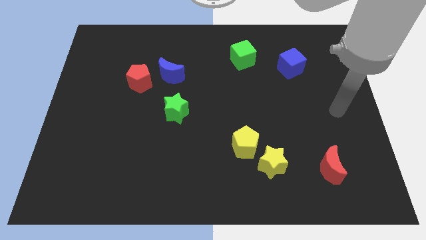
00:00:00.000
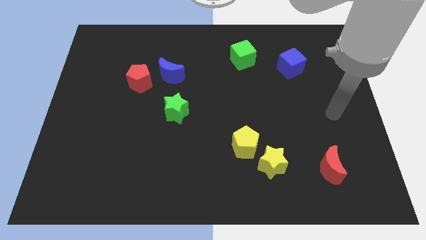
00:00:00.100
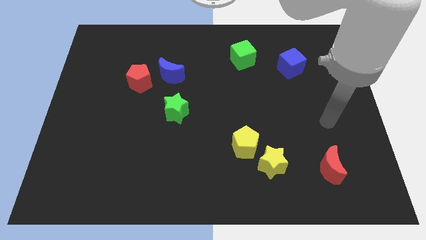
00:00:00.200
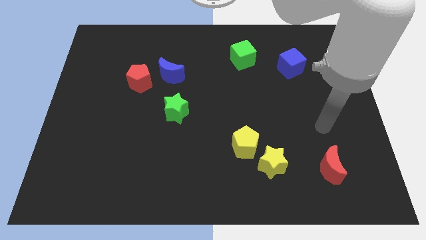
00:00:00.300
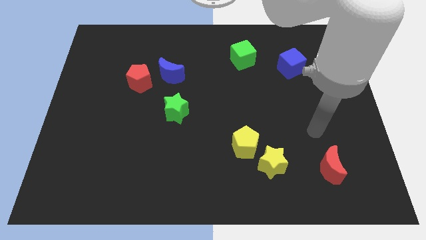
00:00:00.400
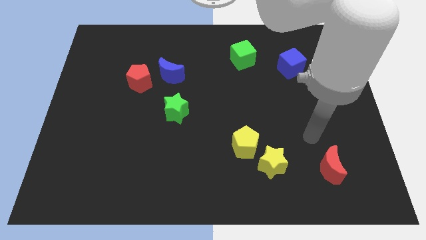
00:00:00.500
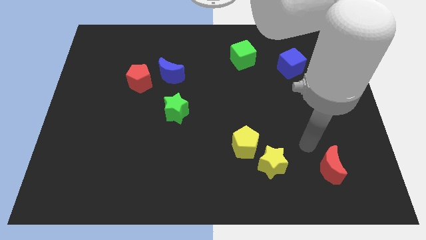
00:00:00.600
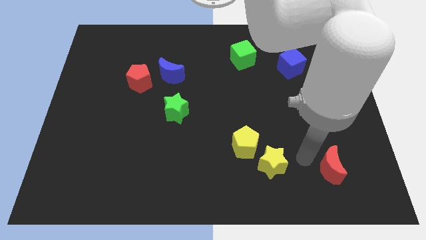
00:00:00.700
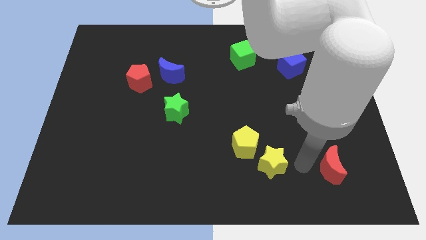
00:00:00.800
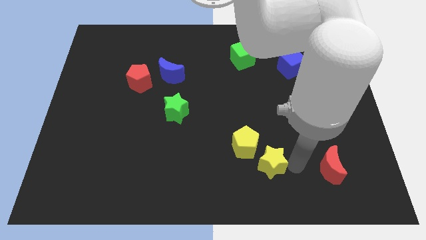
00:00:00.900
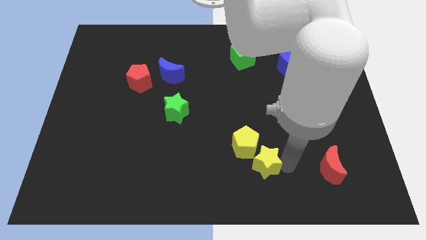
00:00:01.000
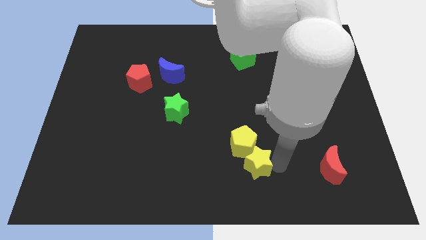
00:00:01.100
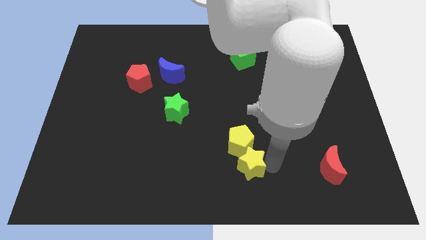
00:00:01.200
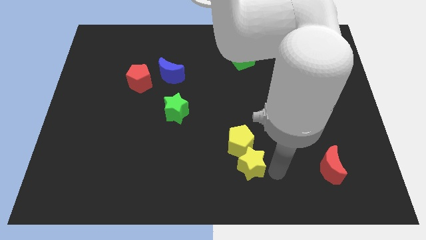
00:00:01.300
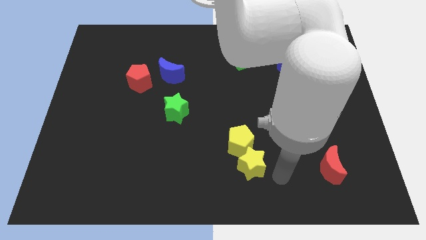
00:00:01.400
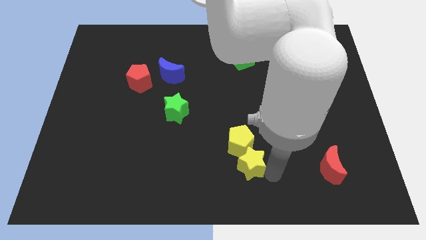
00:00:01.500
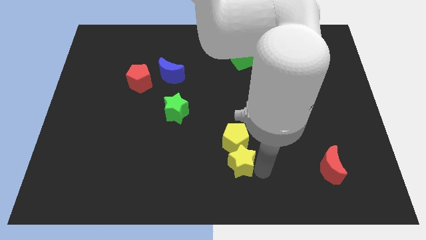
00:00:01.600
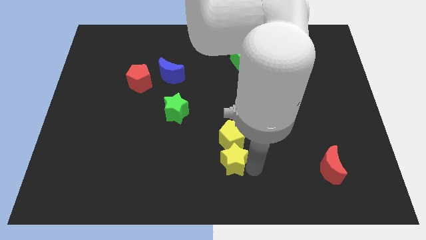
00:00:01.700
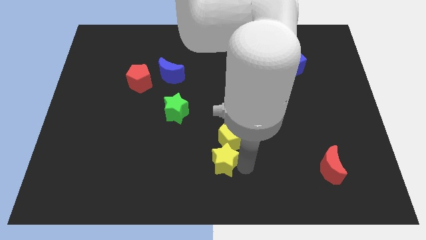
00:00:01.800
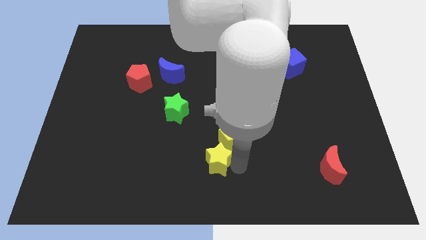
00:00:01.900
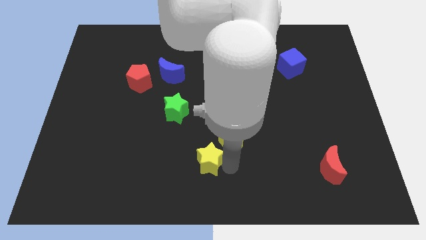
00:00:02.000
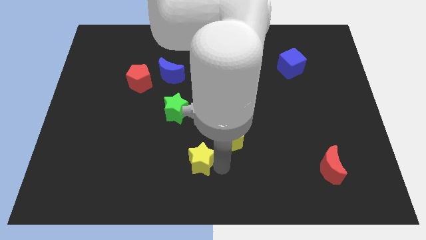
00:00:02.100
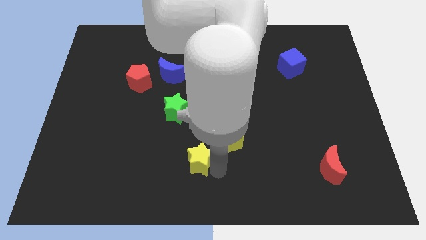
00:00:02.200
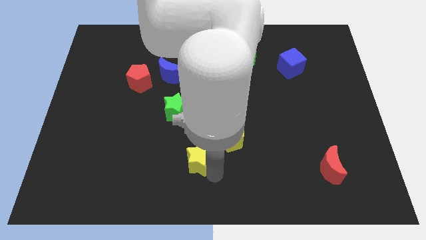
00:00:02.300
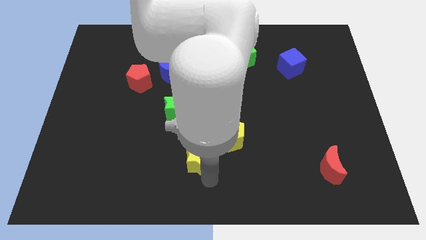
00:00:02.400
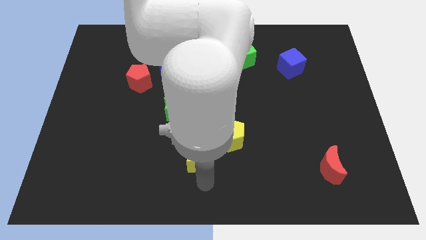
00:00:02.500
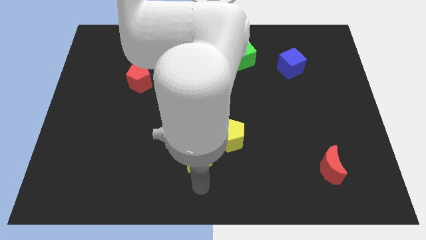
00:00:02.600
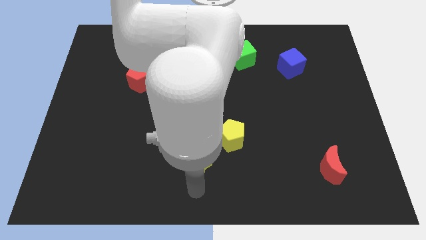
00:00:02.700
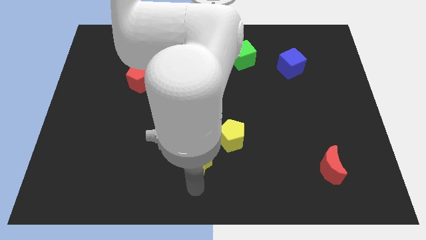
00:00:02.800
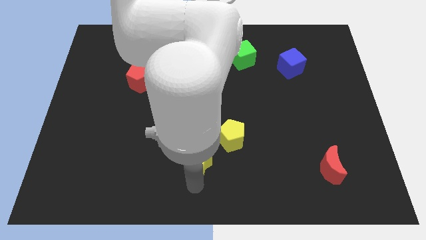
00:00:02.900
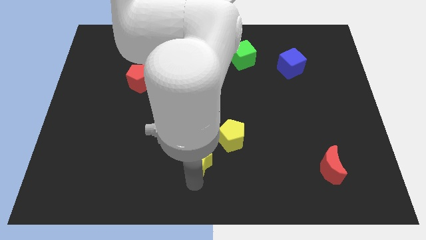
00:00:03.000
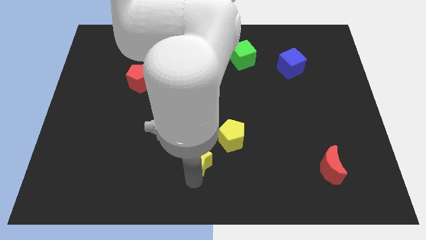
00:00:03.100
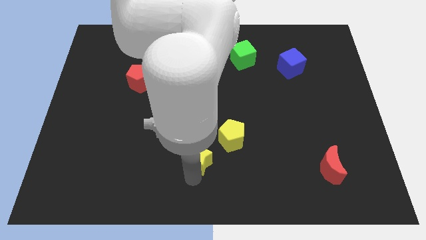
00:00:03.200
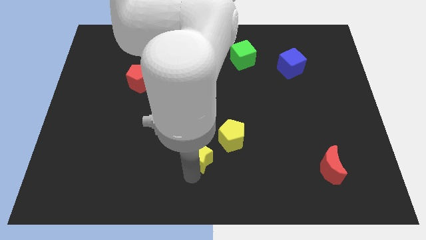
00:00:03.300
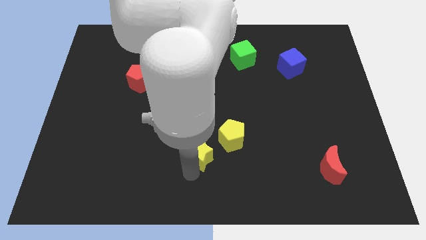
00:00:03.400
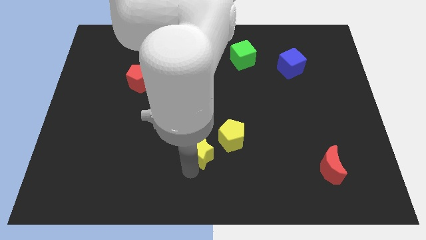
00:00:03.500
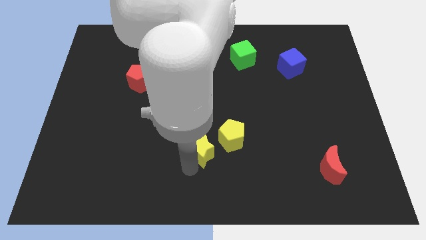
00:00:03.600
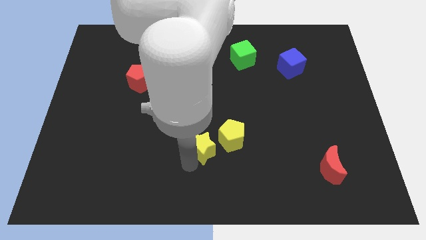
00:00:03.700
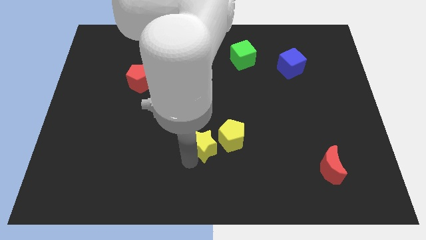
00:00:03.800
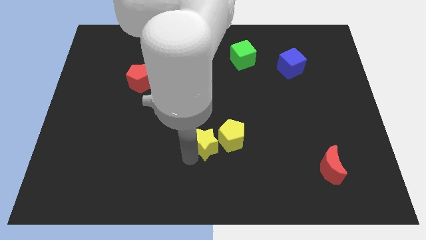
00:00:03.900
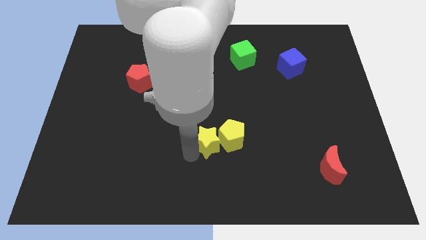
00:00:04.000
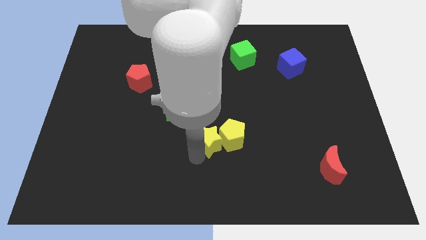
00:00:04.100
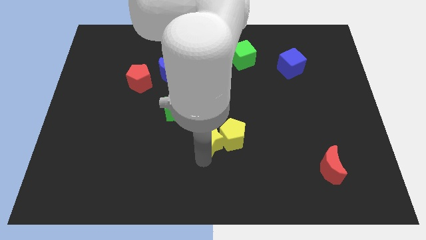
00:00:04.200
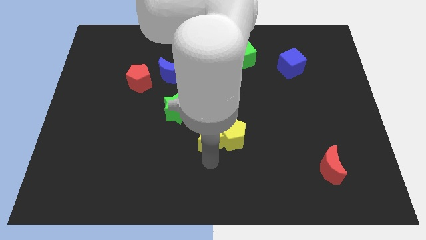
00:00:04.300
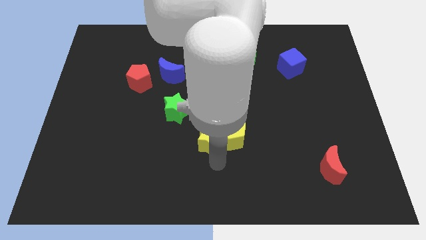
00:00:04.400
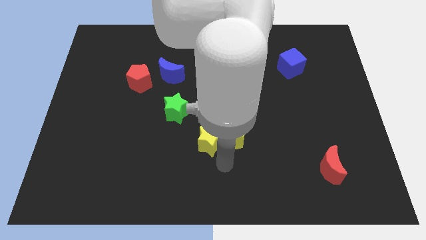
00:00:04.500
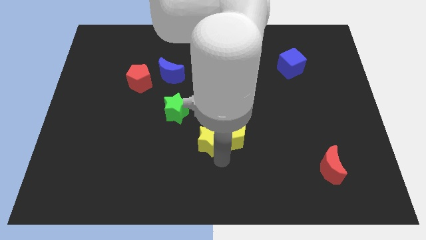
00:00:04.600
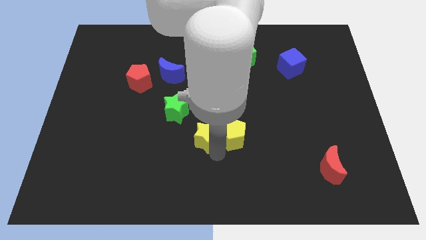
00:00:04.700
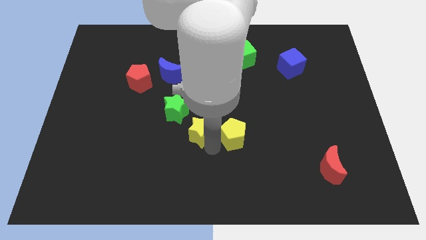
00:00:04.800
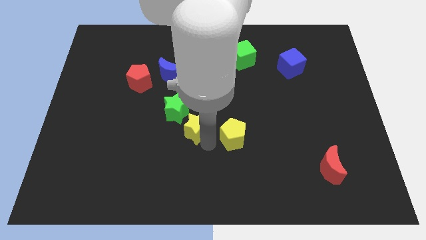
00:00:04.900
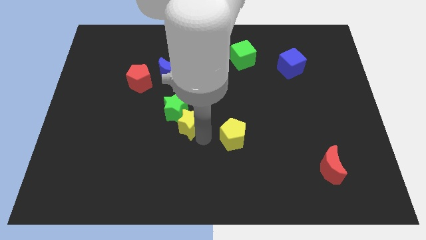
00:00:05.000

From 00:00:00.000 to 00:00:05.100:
slide the yellow star close to the green star

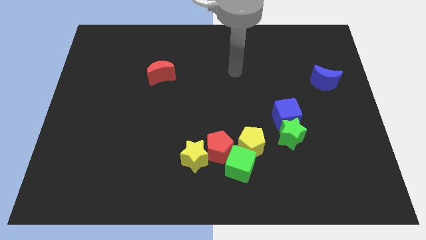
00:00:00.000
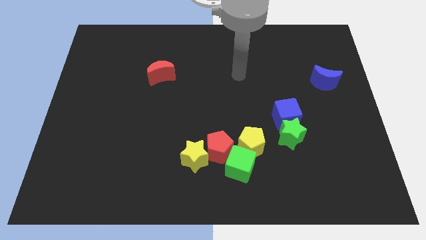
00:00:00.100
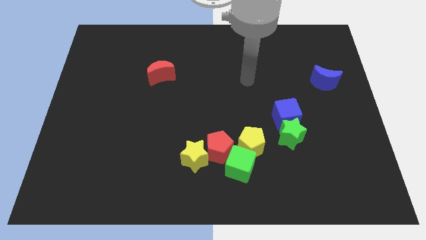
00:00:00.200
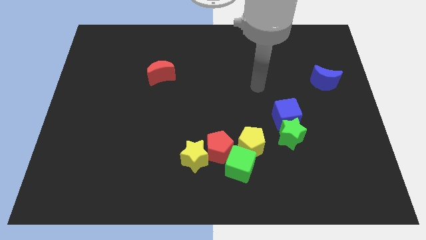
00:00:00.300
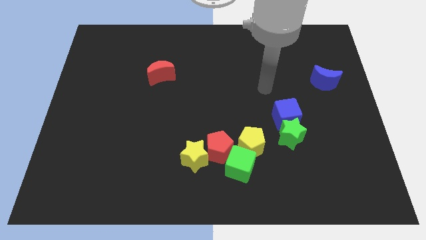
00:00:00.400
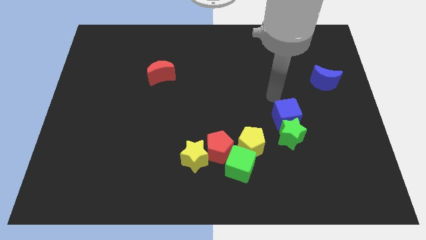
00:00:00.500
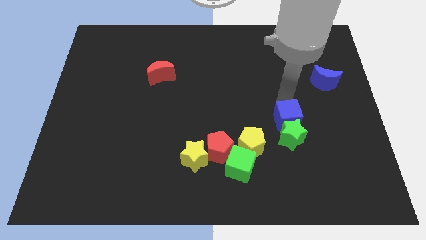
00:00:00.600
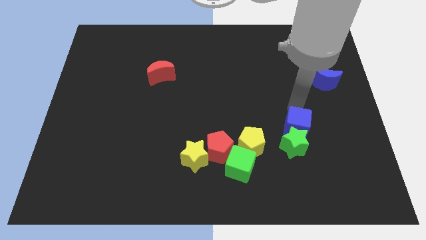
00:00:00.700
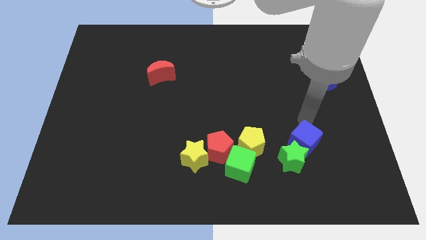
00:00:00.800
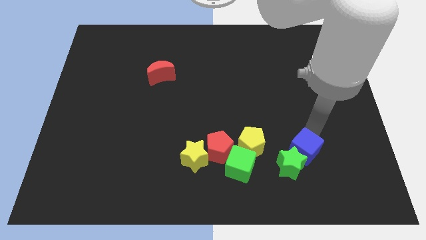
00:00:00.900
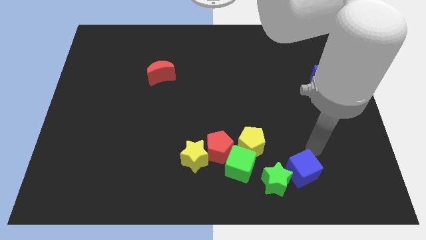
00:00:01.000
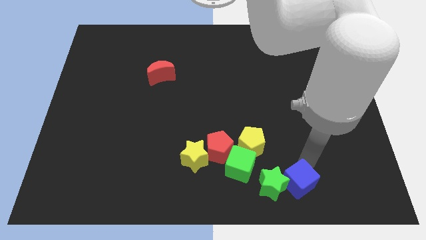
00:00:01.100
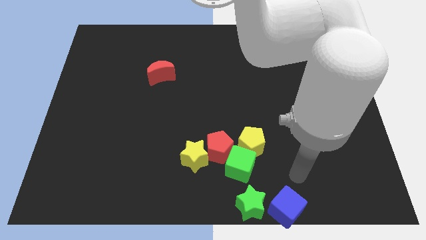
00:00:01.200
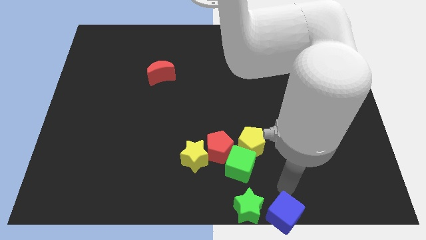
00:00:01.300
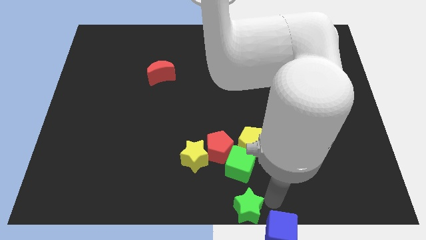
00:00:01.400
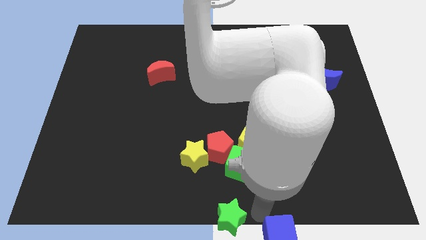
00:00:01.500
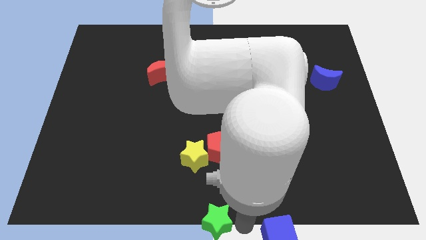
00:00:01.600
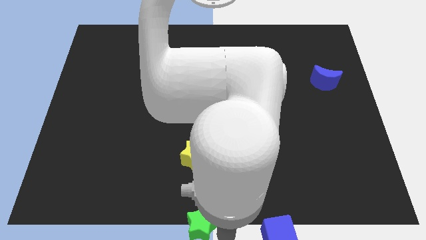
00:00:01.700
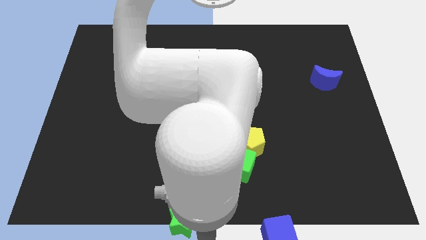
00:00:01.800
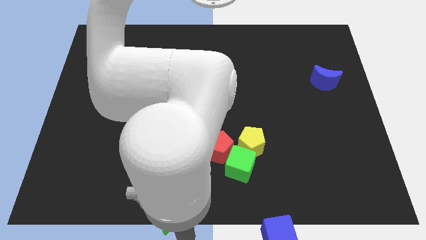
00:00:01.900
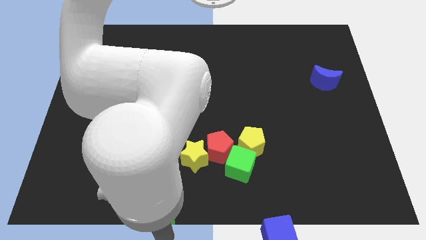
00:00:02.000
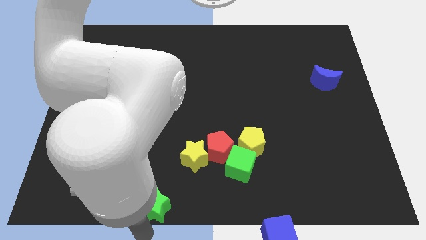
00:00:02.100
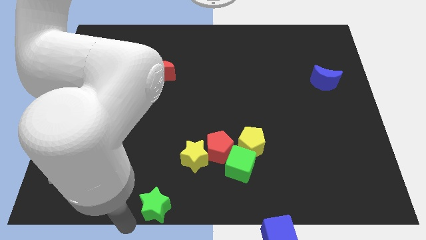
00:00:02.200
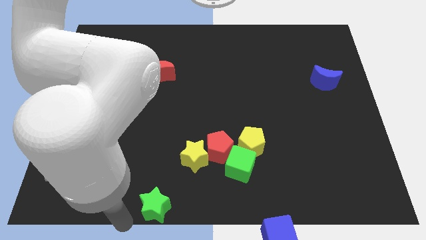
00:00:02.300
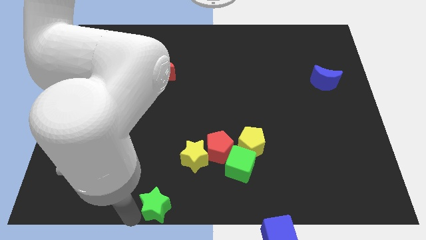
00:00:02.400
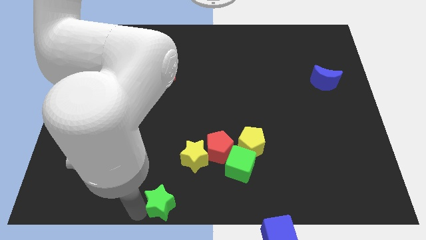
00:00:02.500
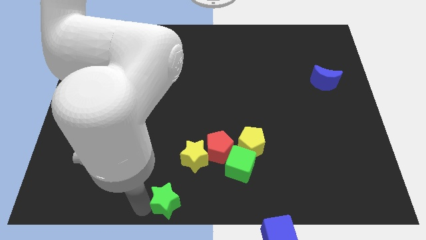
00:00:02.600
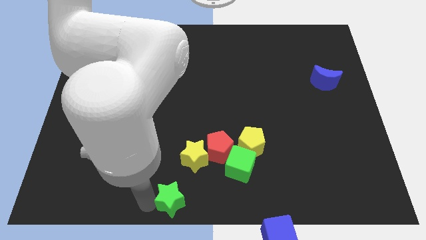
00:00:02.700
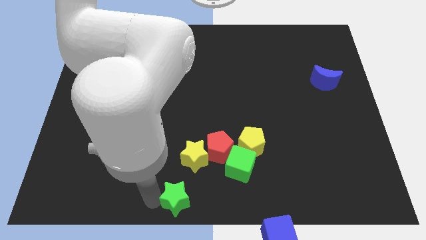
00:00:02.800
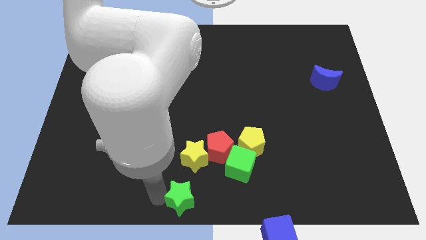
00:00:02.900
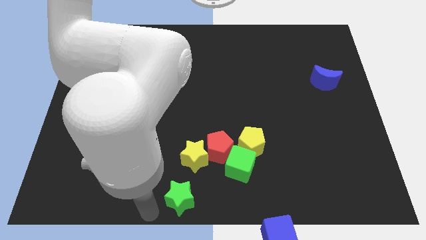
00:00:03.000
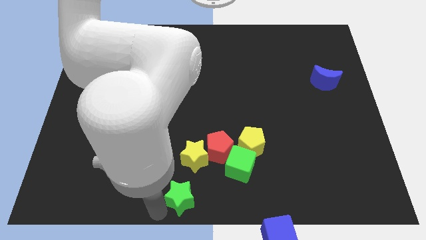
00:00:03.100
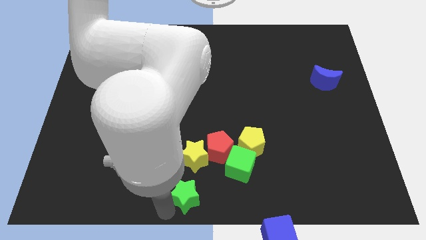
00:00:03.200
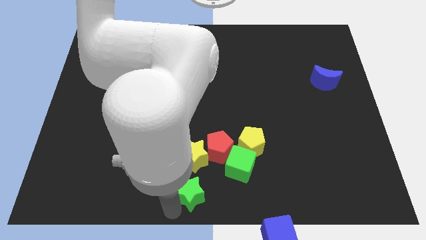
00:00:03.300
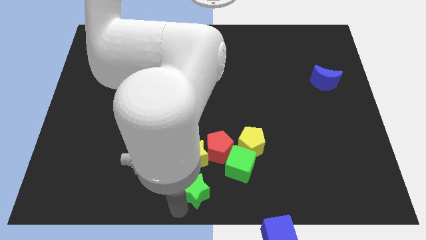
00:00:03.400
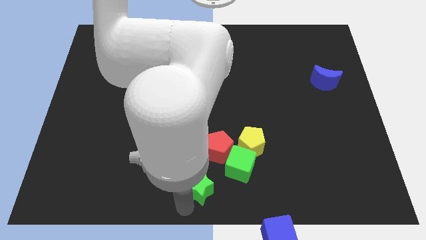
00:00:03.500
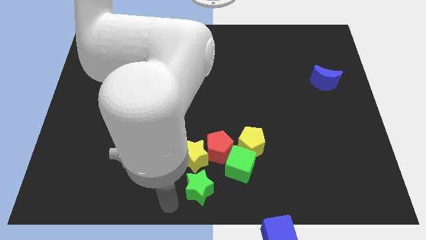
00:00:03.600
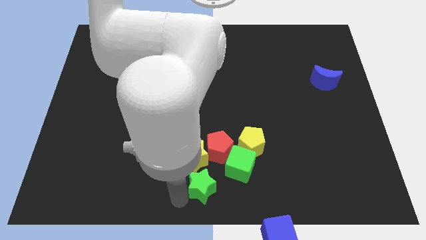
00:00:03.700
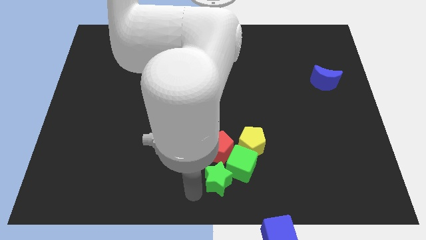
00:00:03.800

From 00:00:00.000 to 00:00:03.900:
move the green star close to the green cube
